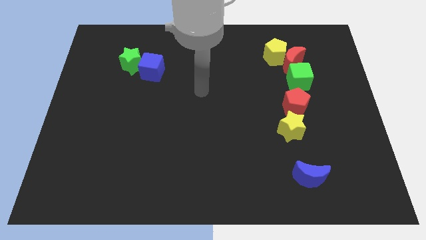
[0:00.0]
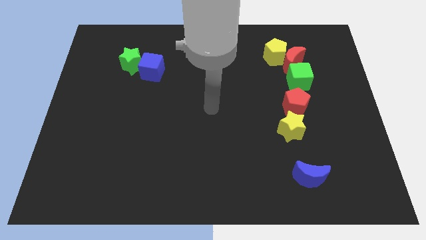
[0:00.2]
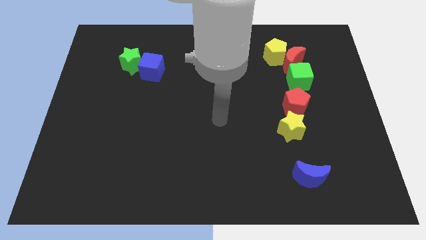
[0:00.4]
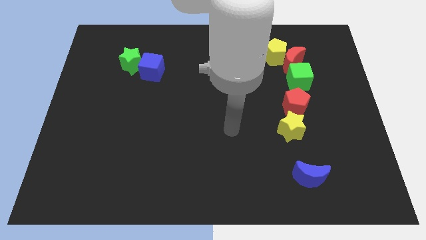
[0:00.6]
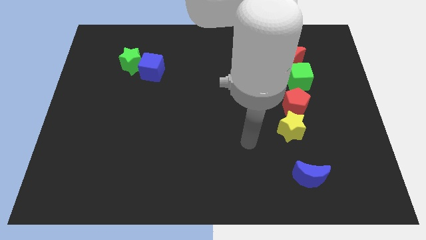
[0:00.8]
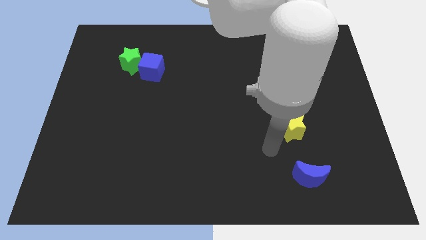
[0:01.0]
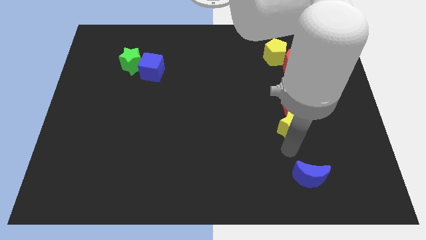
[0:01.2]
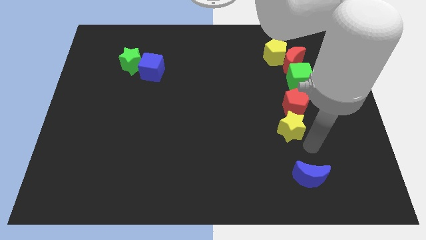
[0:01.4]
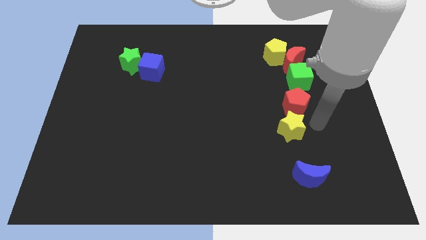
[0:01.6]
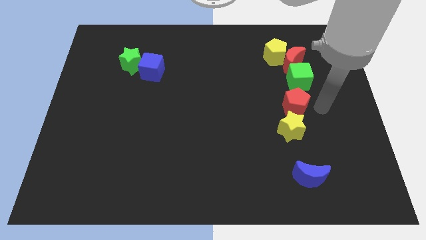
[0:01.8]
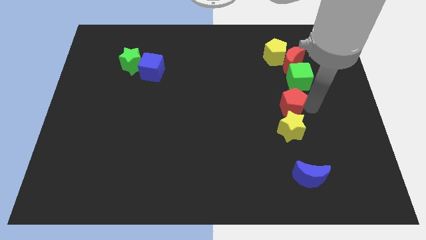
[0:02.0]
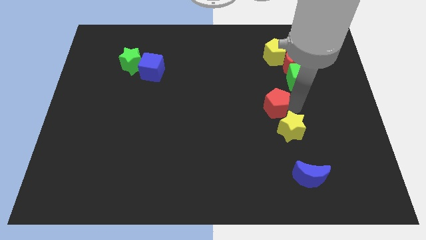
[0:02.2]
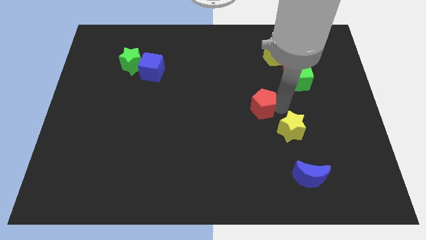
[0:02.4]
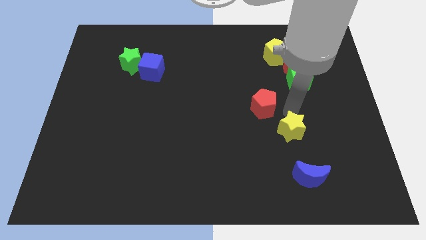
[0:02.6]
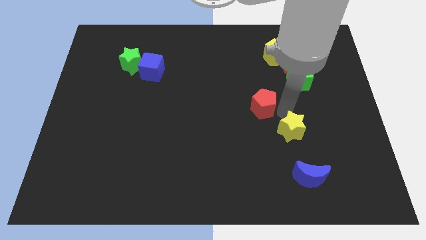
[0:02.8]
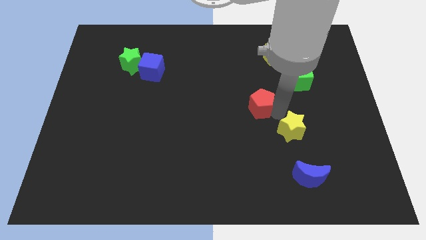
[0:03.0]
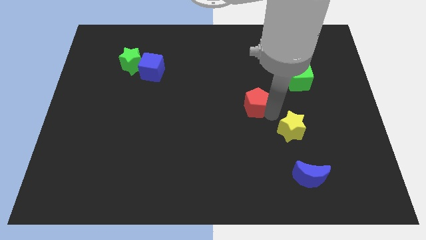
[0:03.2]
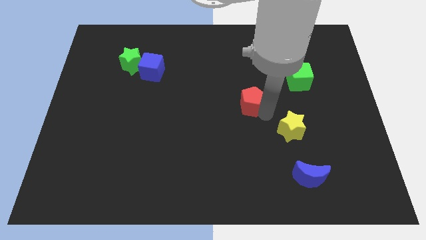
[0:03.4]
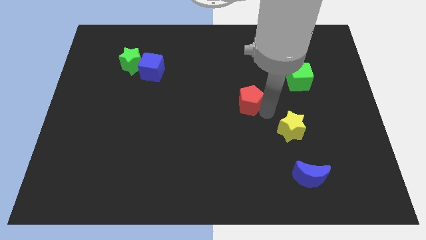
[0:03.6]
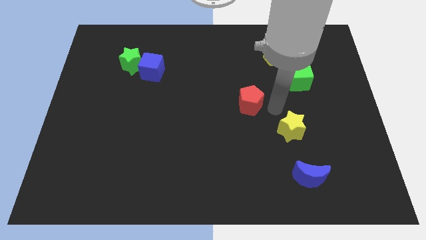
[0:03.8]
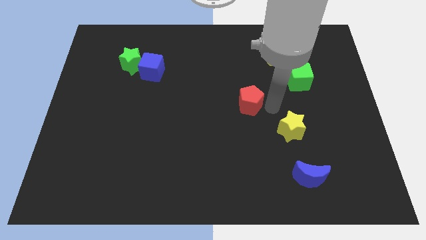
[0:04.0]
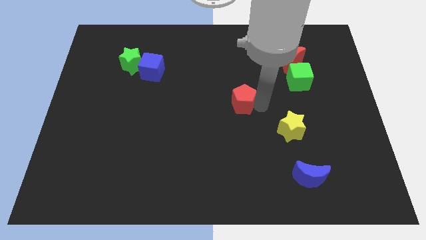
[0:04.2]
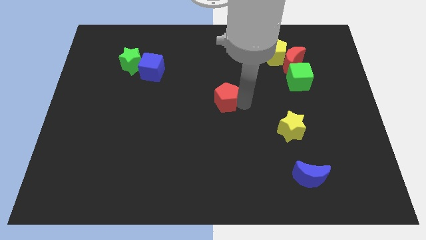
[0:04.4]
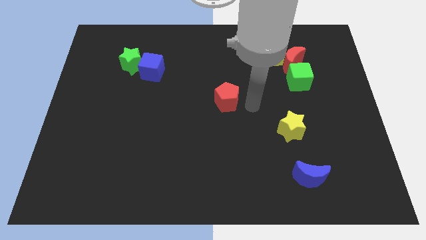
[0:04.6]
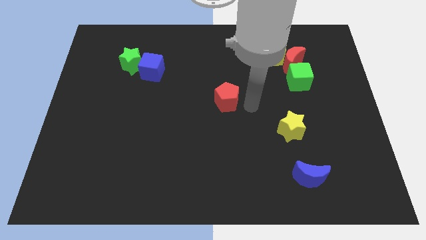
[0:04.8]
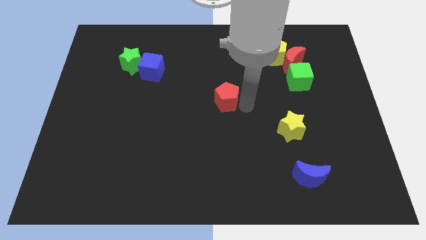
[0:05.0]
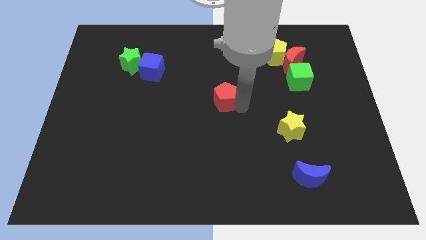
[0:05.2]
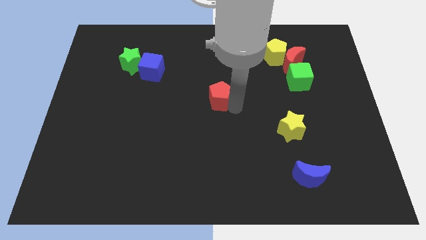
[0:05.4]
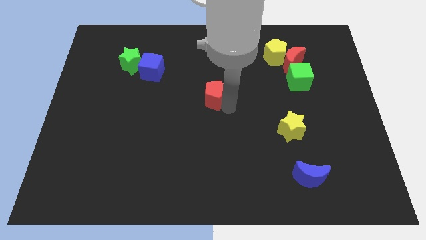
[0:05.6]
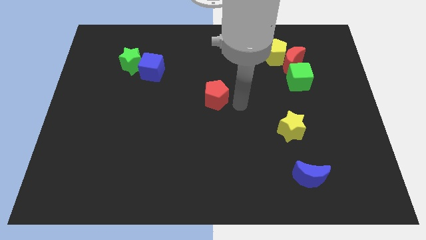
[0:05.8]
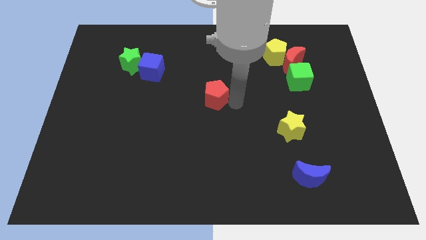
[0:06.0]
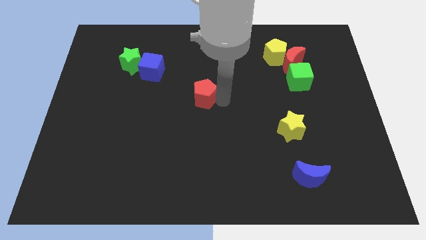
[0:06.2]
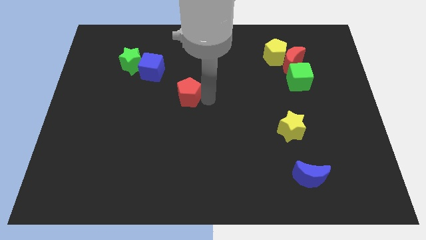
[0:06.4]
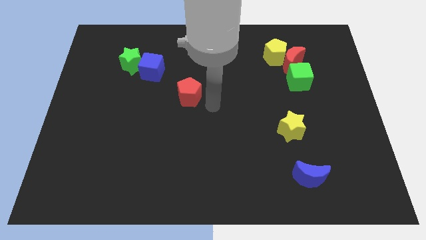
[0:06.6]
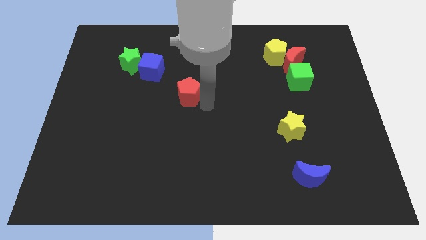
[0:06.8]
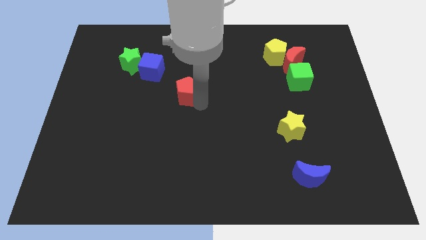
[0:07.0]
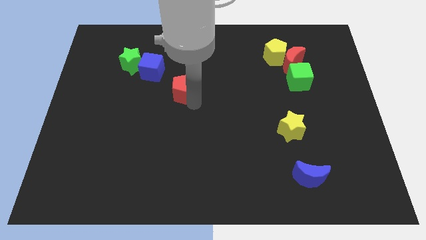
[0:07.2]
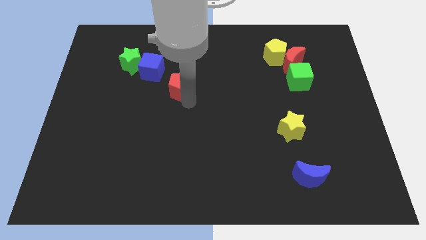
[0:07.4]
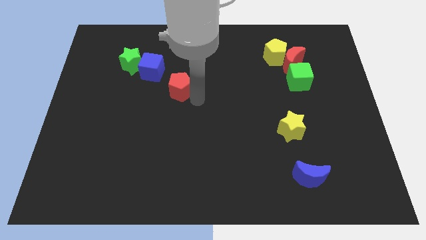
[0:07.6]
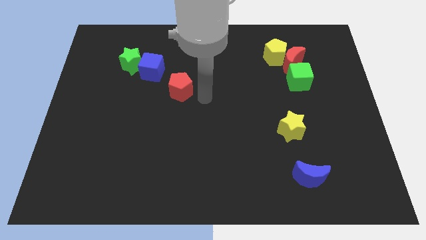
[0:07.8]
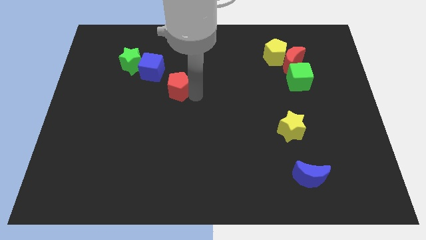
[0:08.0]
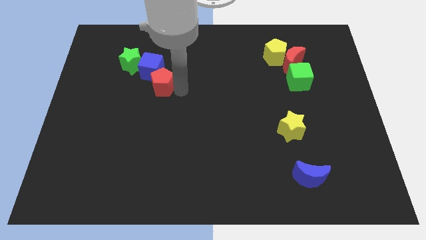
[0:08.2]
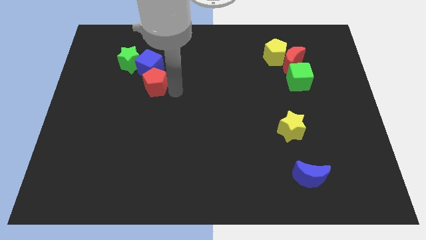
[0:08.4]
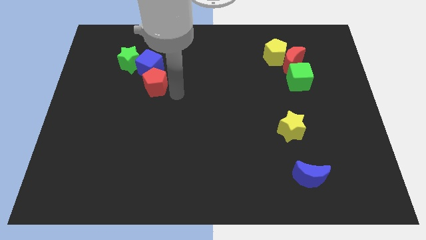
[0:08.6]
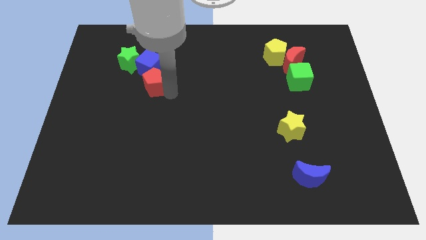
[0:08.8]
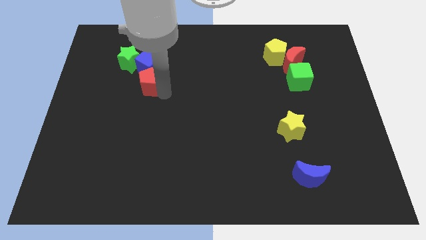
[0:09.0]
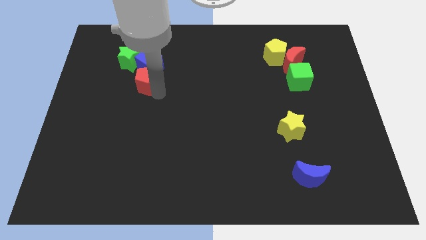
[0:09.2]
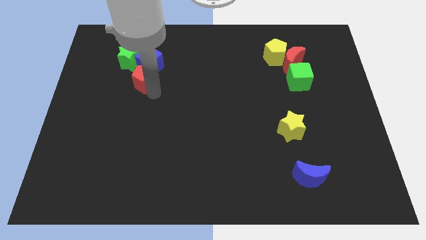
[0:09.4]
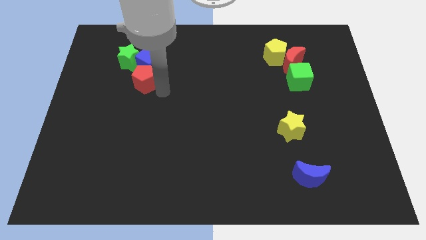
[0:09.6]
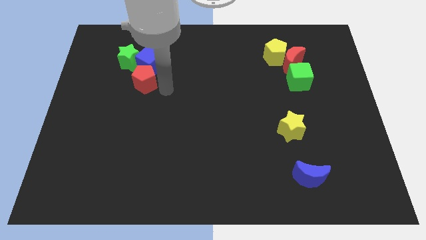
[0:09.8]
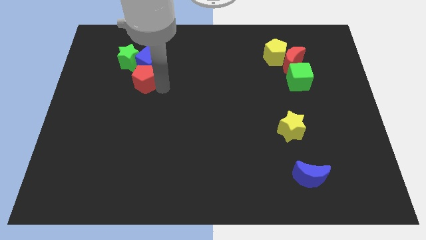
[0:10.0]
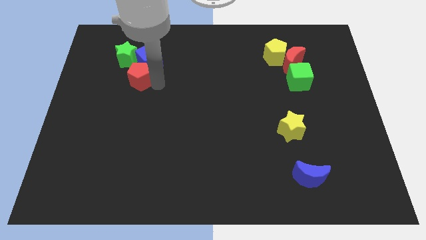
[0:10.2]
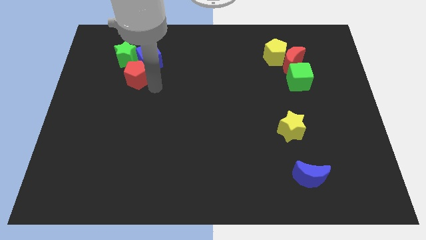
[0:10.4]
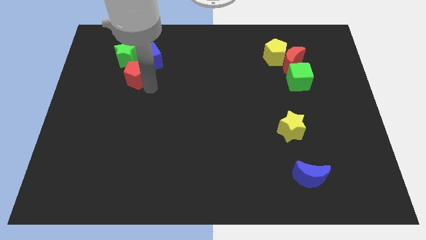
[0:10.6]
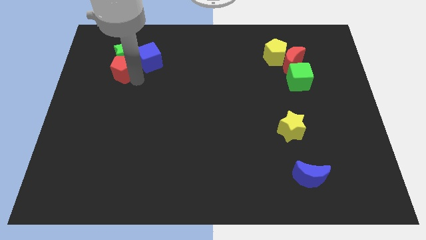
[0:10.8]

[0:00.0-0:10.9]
slide the red pentagon left of the blue cube

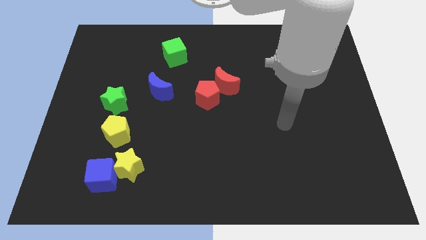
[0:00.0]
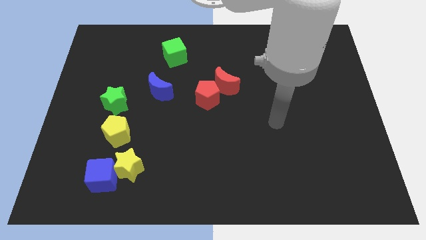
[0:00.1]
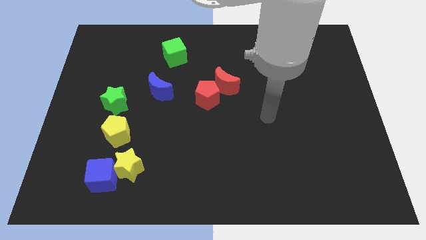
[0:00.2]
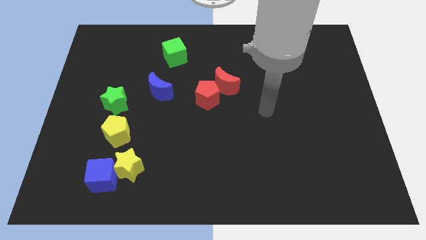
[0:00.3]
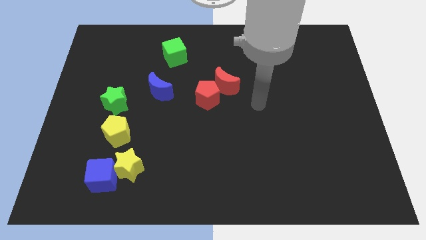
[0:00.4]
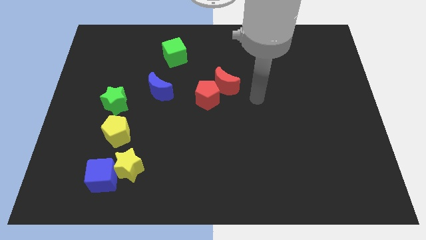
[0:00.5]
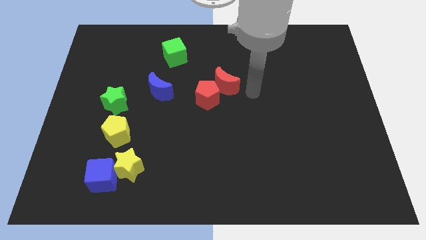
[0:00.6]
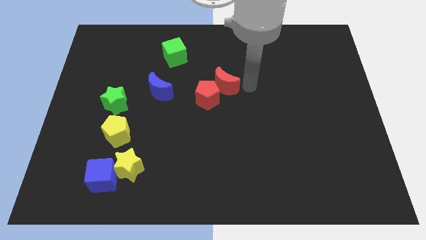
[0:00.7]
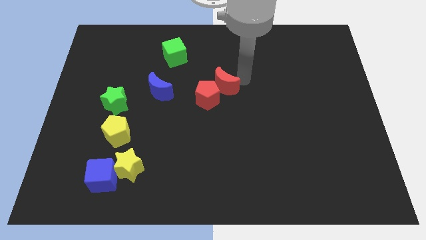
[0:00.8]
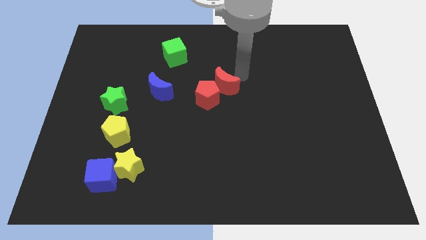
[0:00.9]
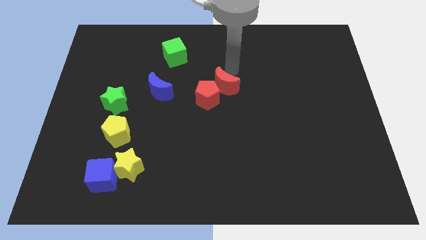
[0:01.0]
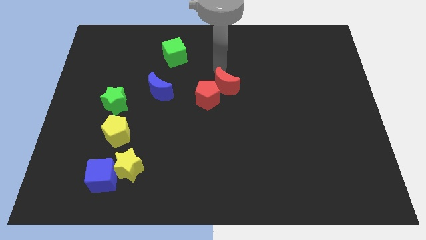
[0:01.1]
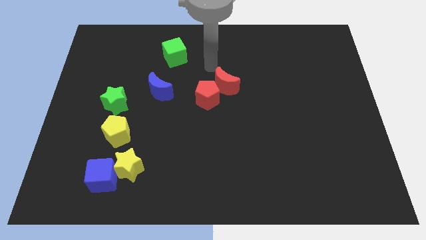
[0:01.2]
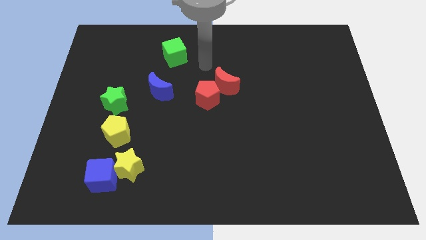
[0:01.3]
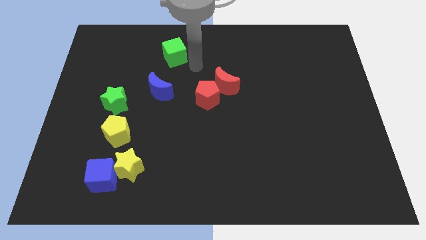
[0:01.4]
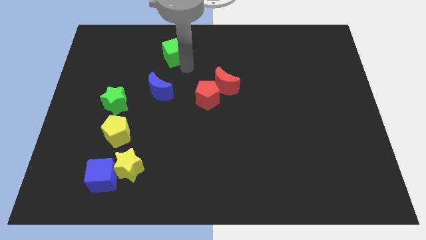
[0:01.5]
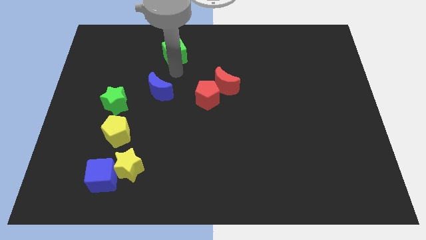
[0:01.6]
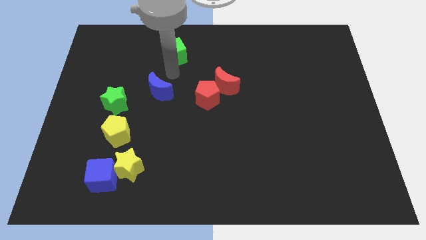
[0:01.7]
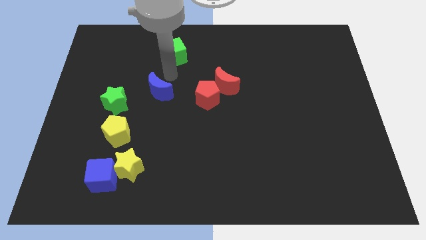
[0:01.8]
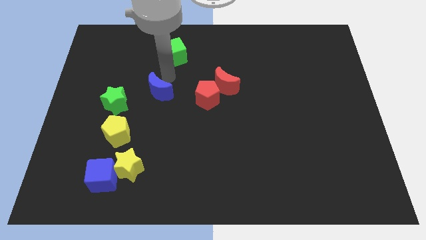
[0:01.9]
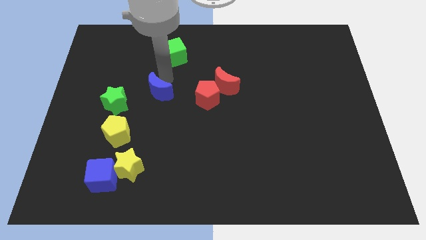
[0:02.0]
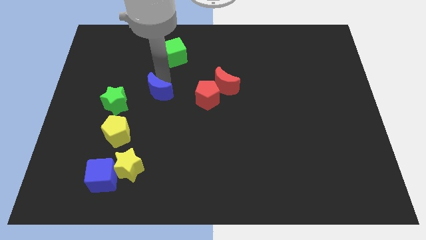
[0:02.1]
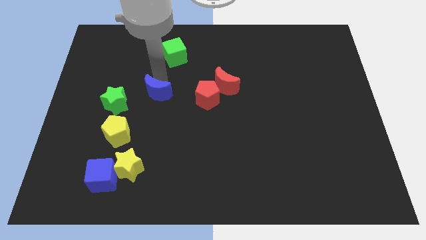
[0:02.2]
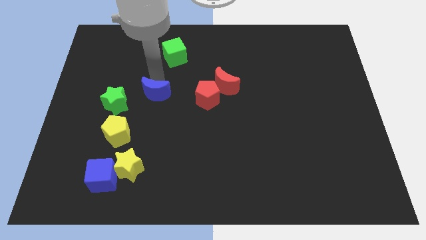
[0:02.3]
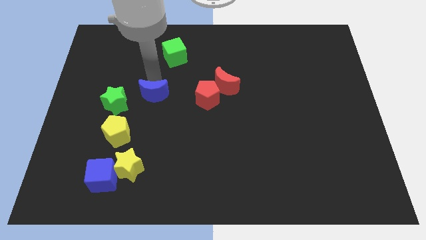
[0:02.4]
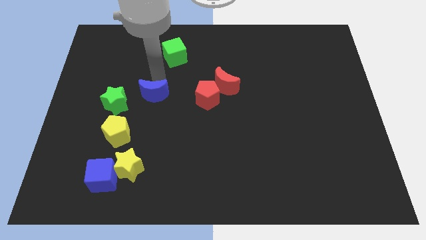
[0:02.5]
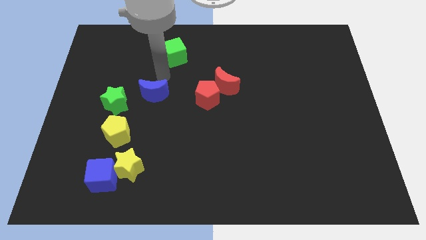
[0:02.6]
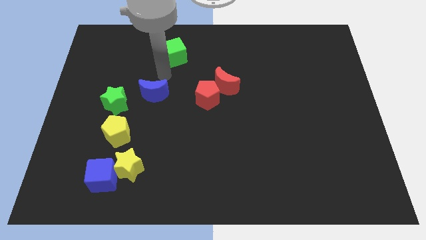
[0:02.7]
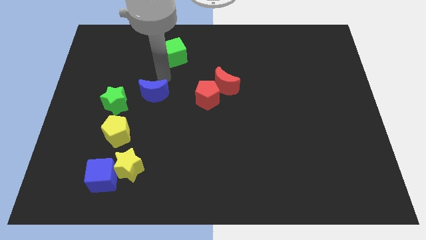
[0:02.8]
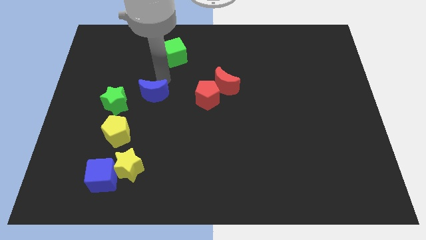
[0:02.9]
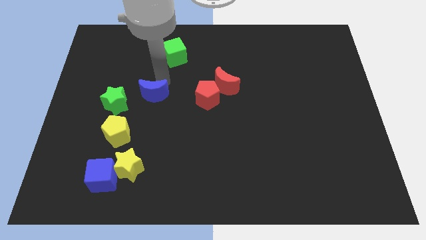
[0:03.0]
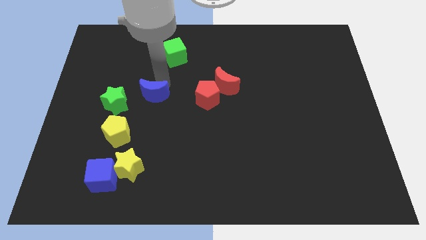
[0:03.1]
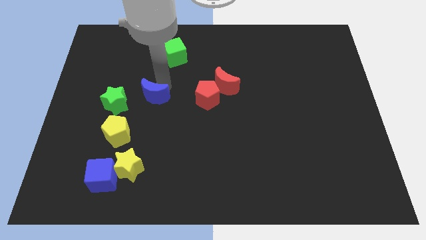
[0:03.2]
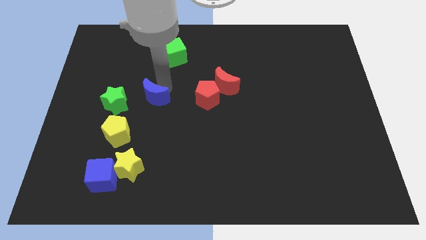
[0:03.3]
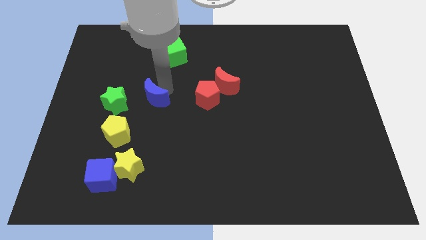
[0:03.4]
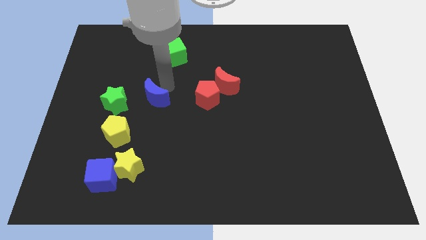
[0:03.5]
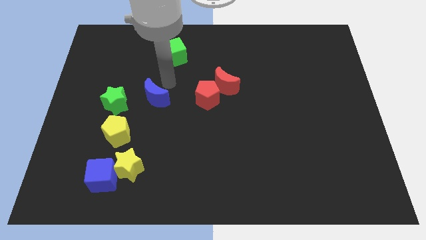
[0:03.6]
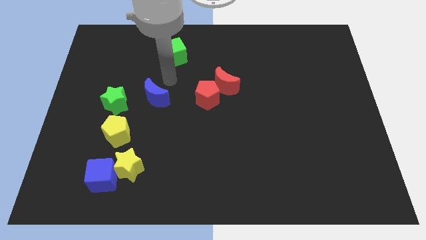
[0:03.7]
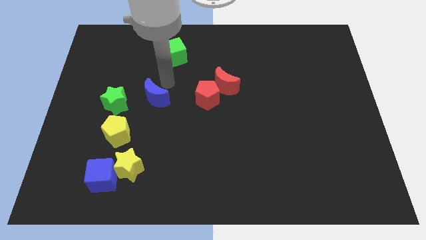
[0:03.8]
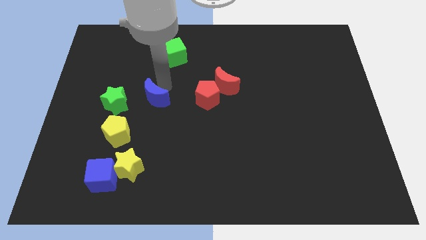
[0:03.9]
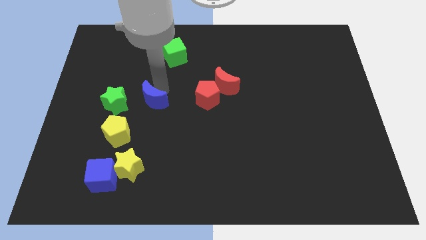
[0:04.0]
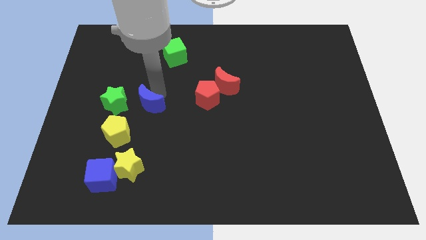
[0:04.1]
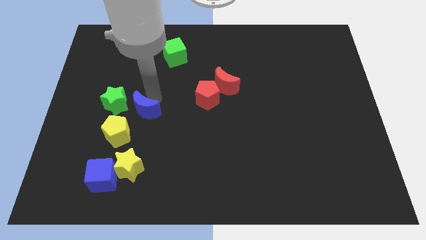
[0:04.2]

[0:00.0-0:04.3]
slide the blue moon to the top side of the yellow star
